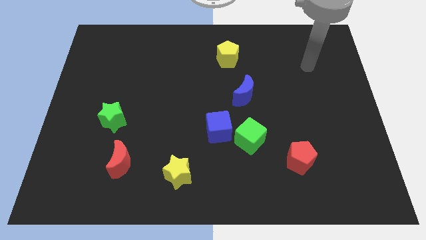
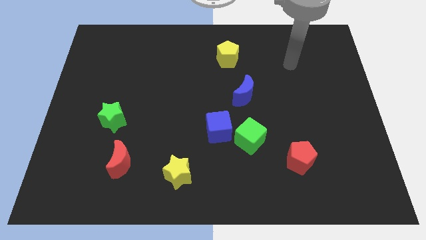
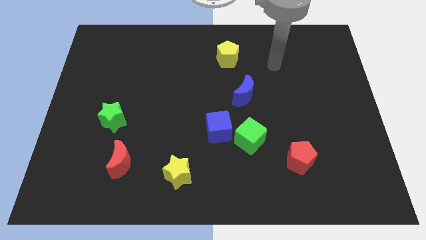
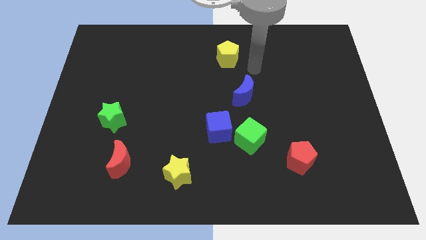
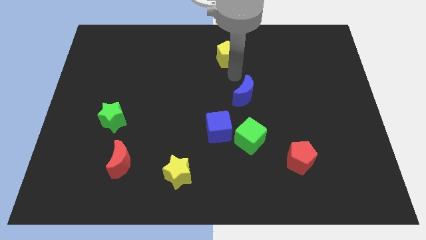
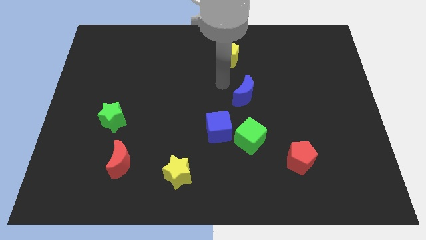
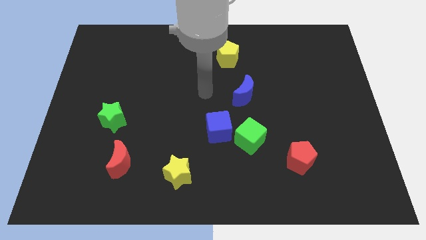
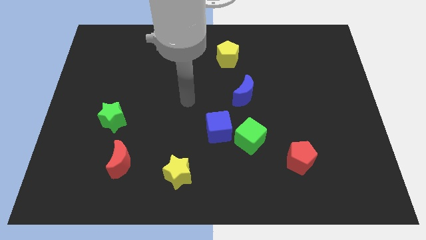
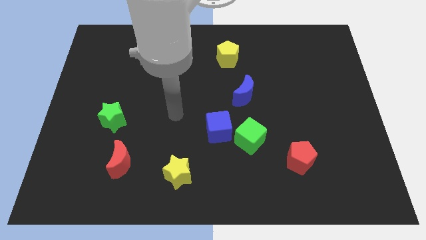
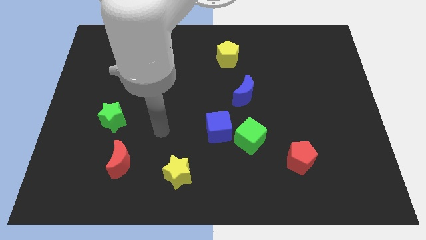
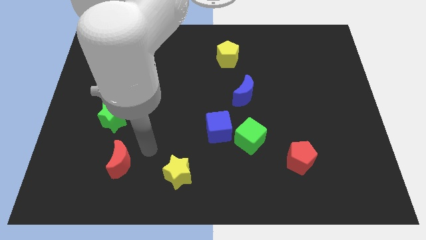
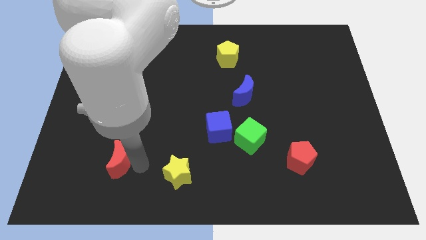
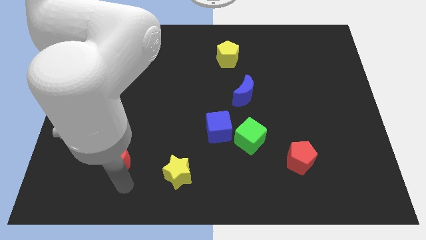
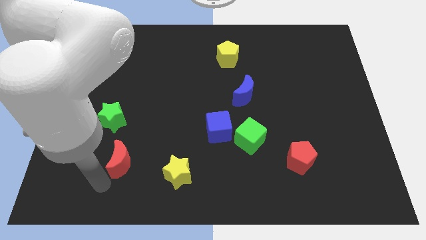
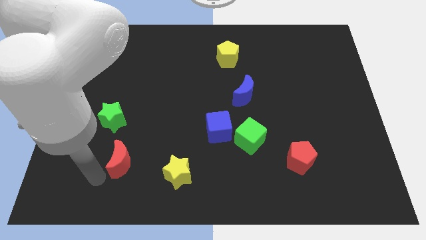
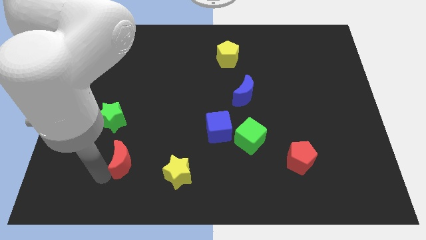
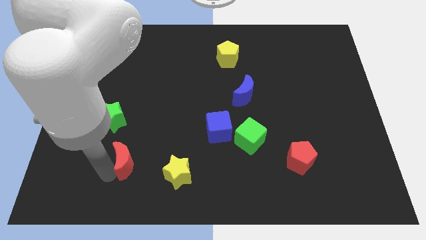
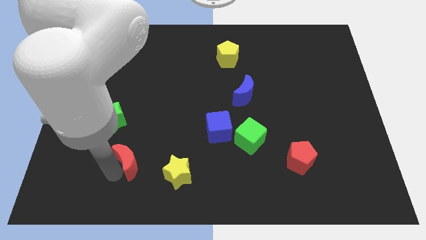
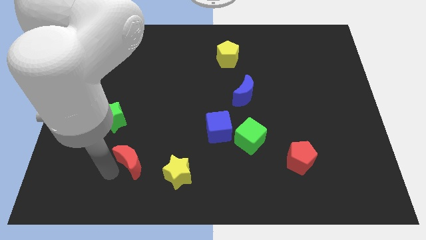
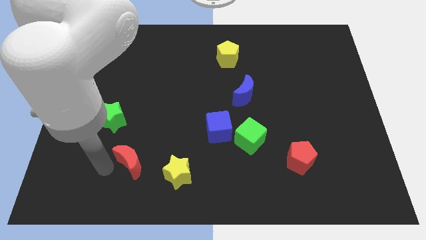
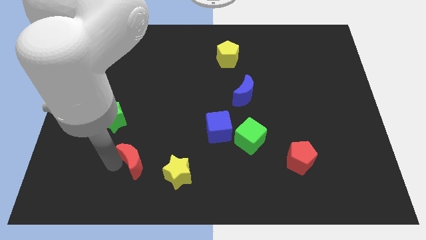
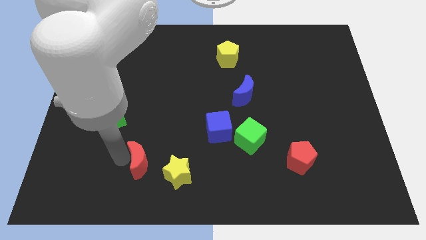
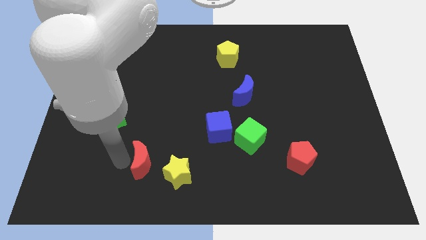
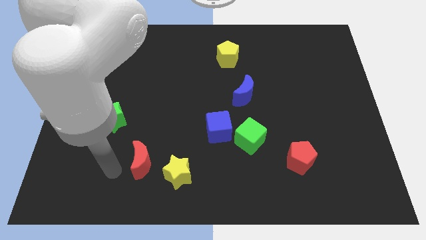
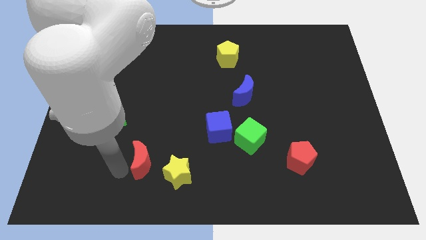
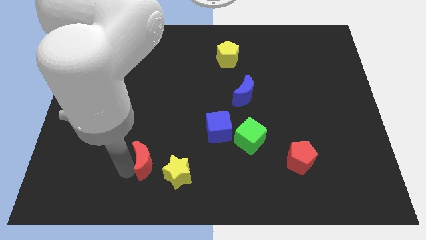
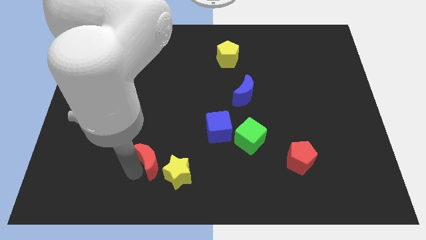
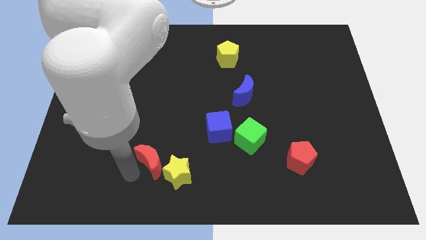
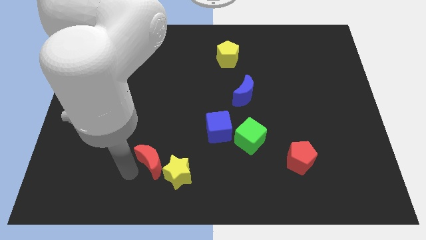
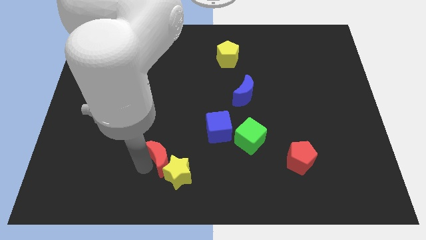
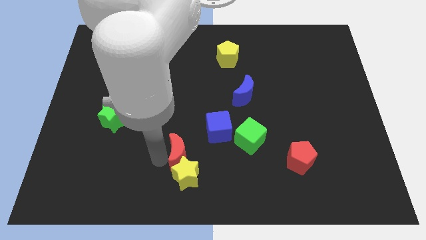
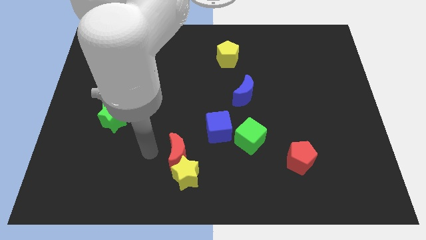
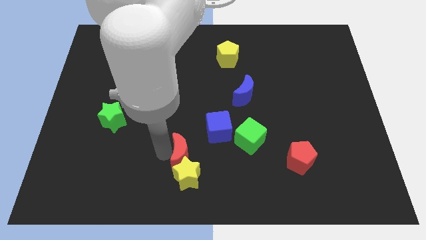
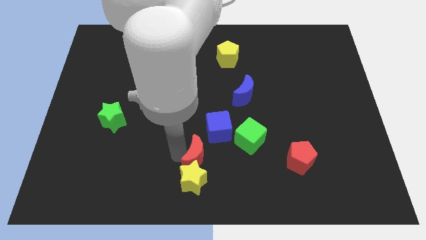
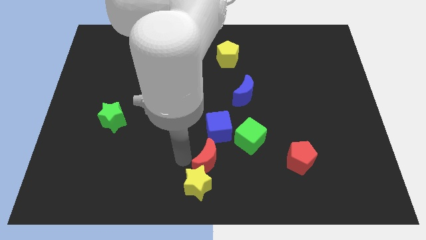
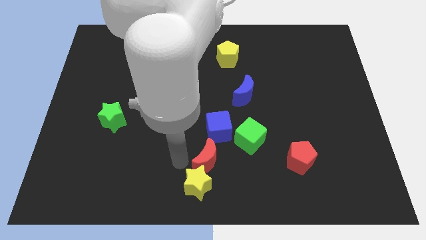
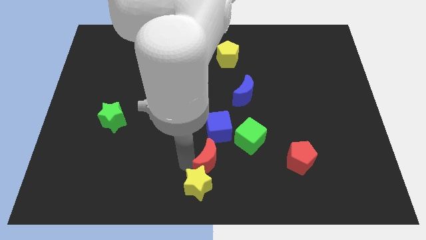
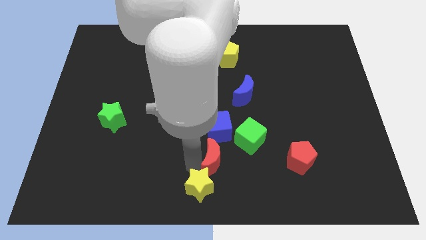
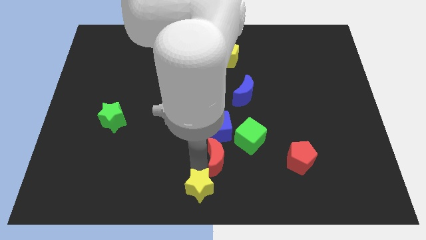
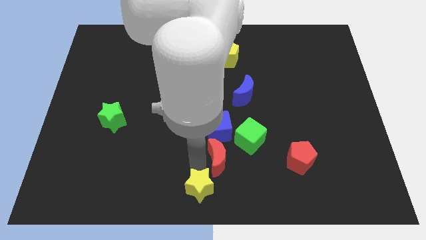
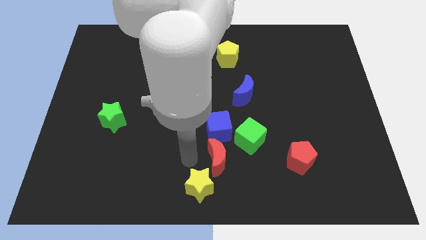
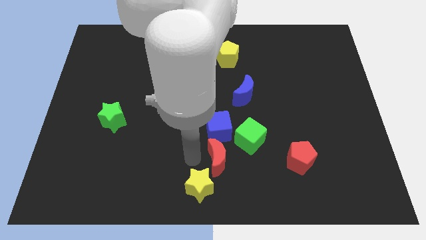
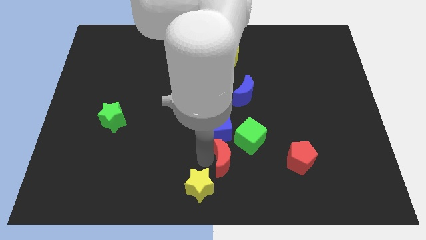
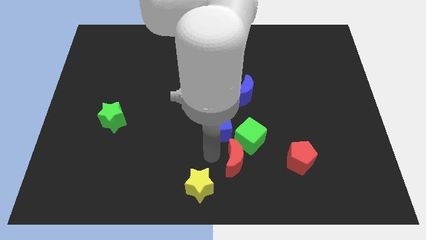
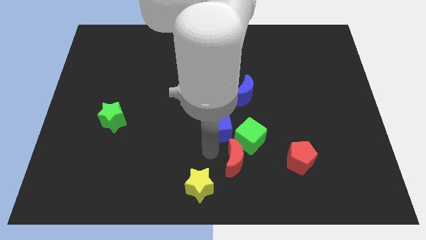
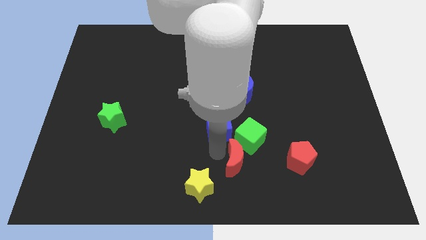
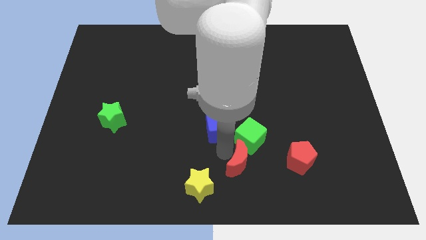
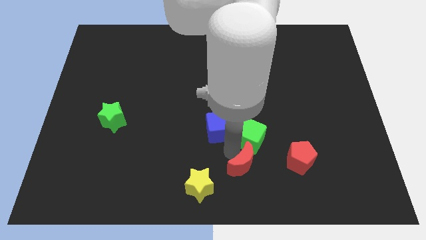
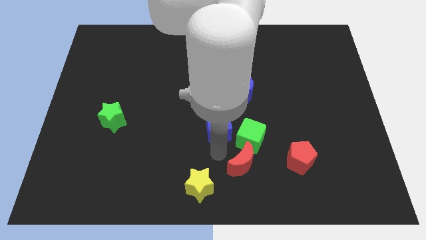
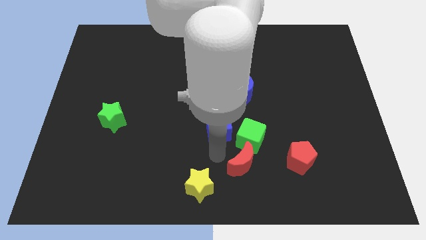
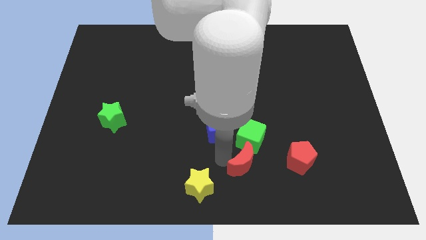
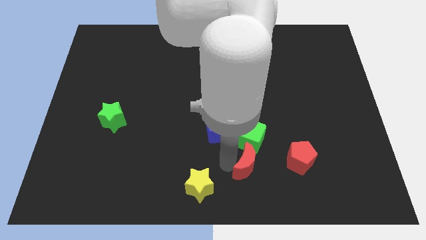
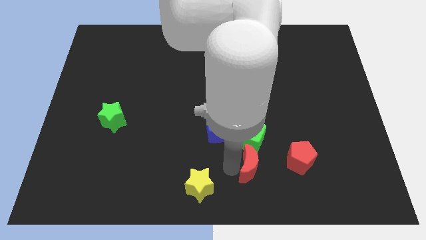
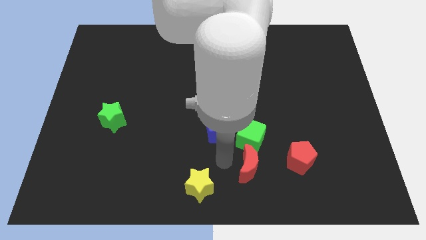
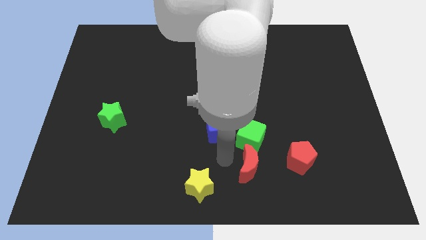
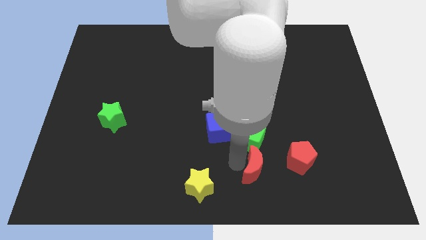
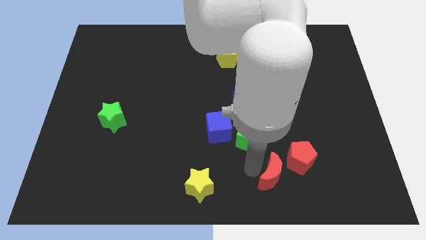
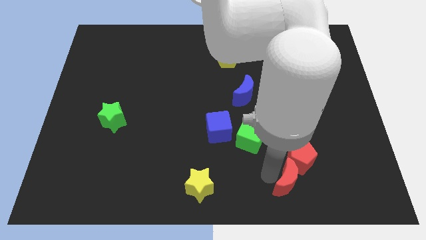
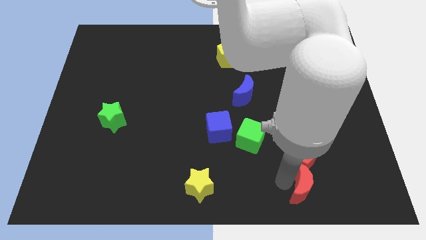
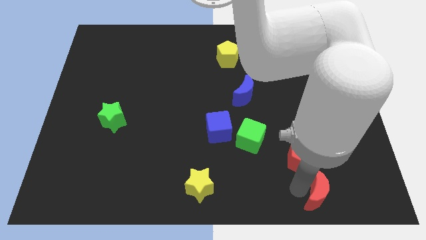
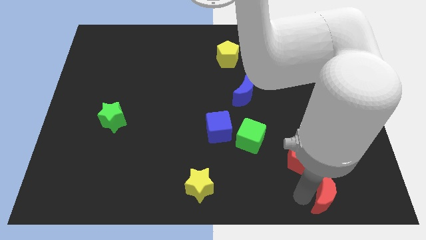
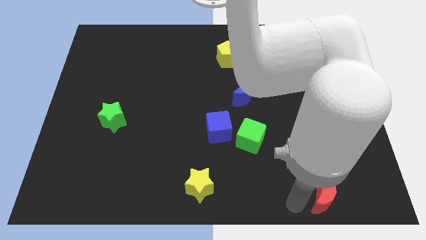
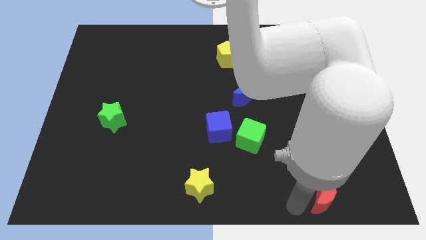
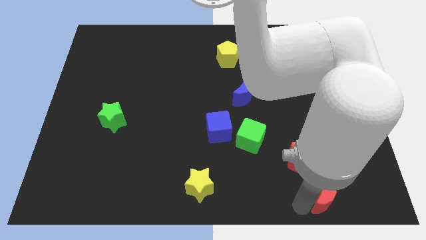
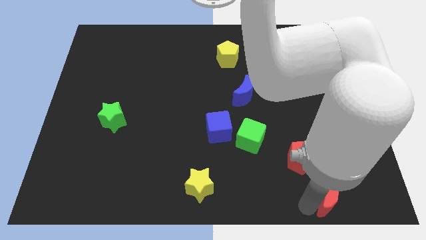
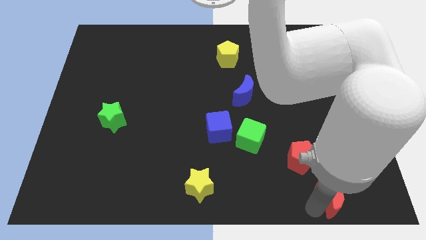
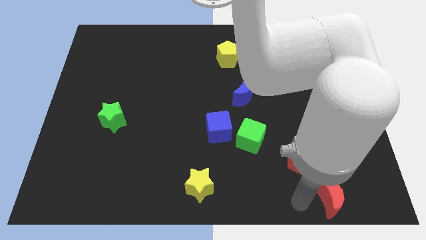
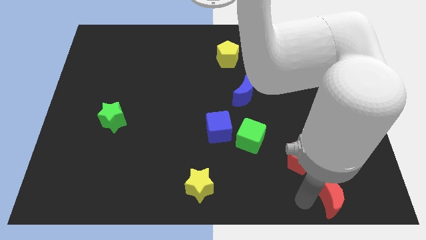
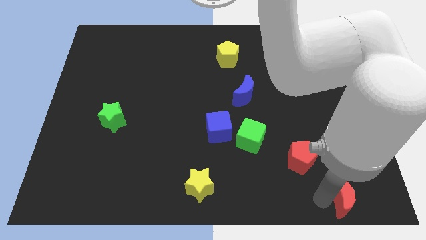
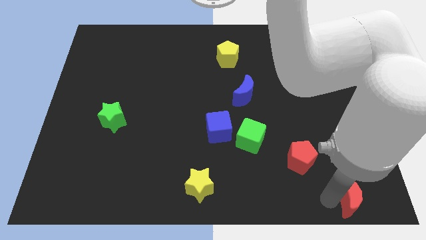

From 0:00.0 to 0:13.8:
push the red moon to the bottom right corner

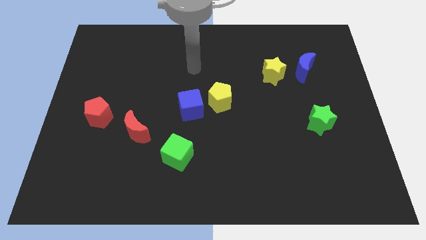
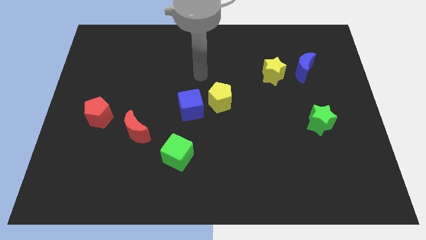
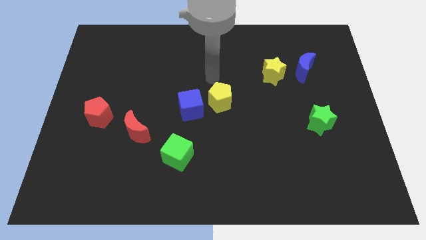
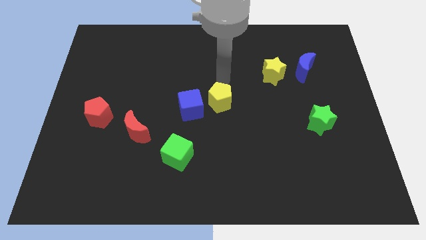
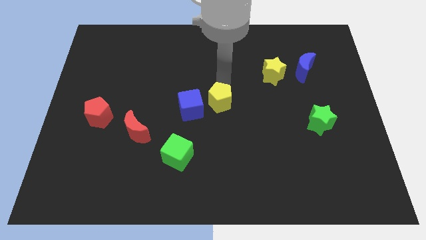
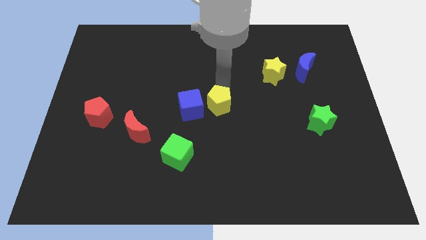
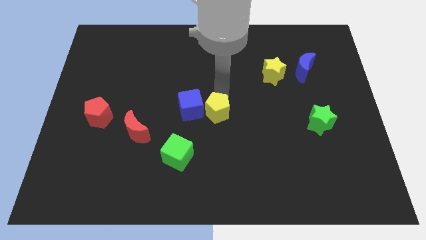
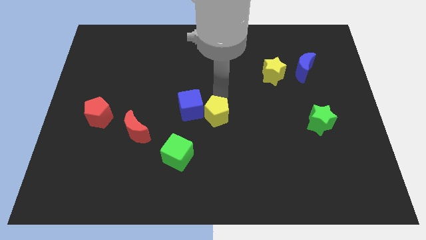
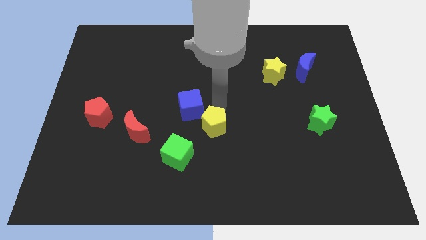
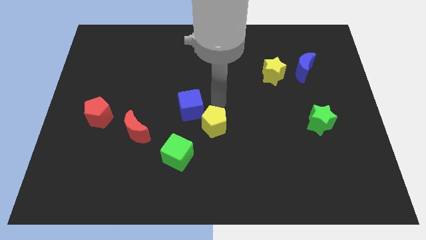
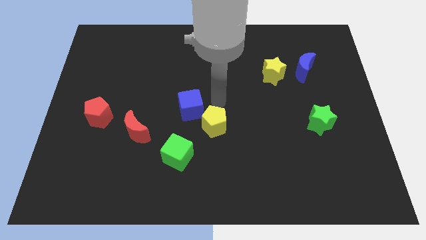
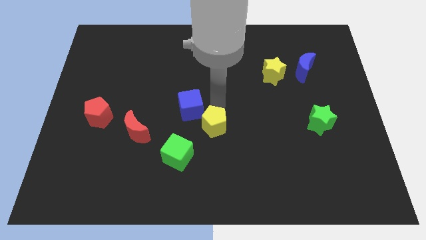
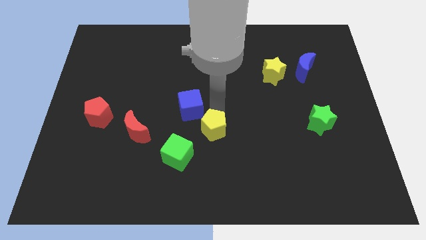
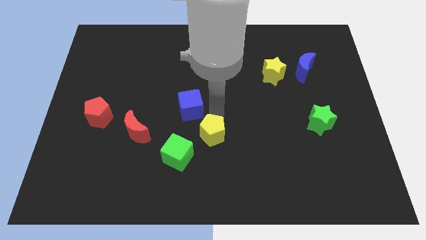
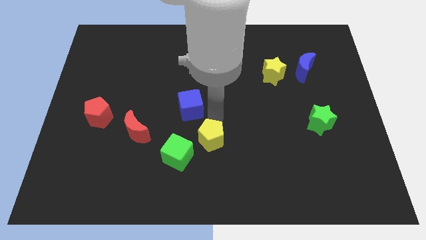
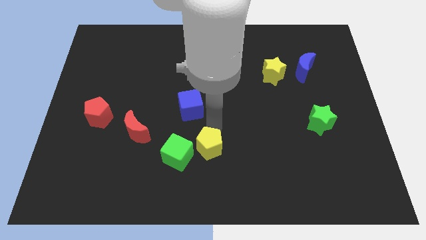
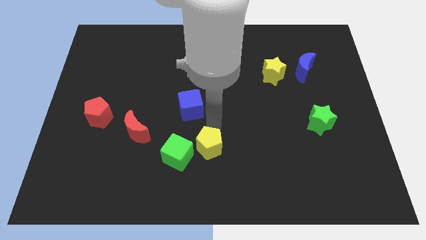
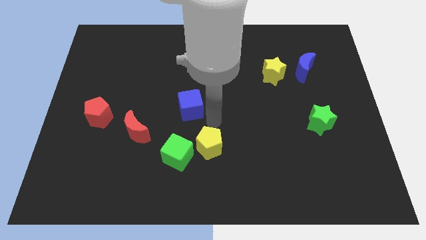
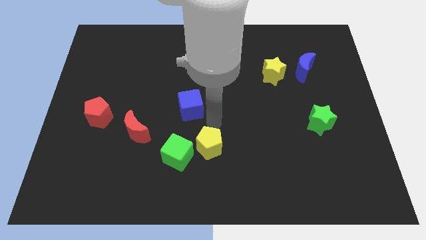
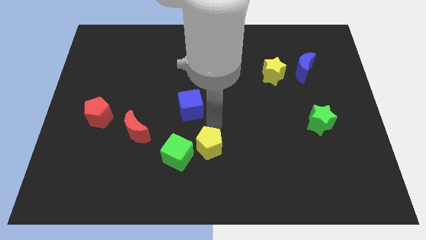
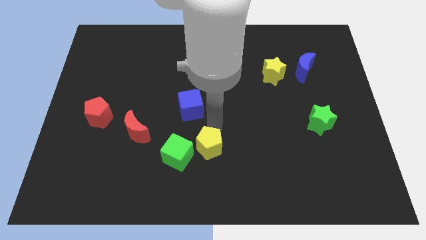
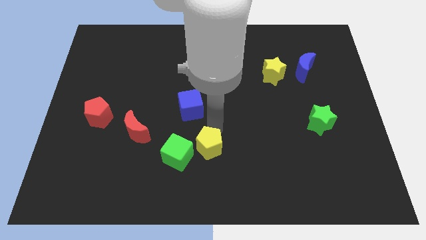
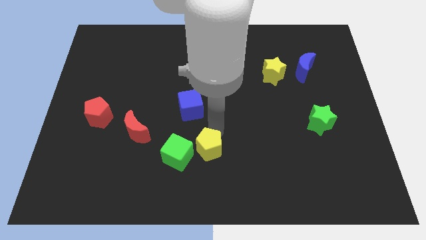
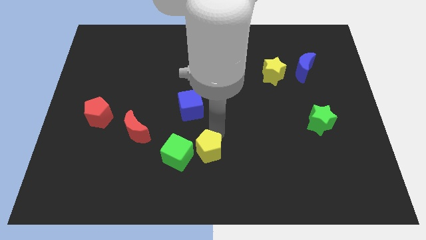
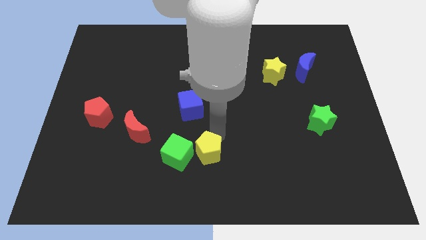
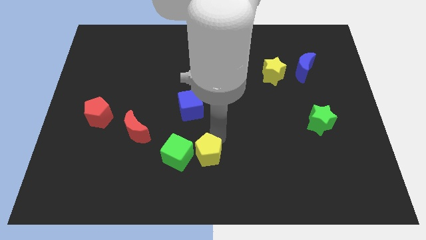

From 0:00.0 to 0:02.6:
put the yellow pentagon to the bottom
